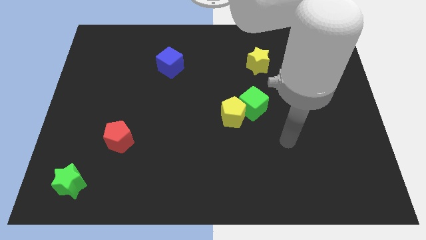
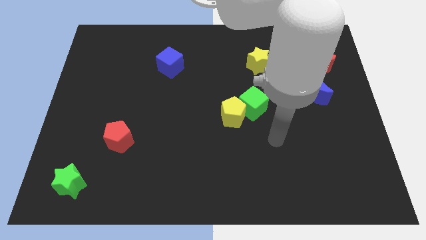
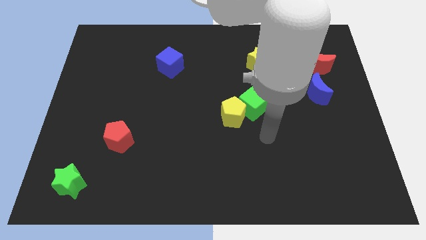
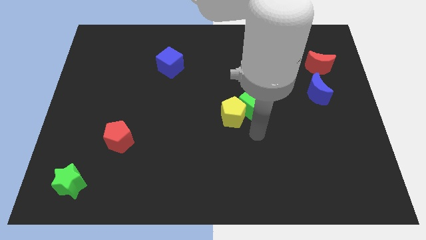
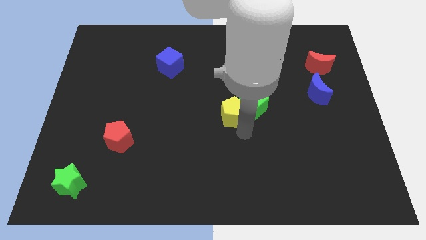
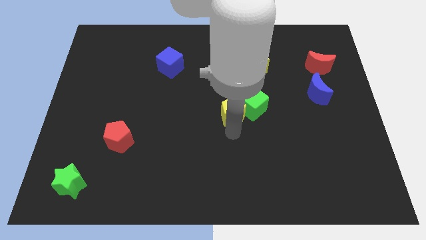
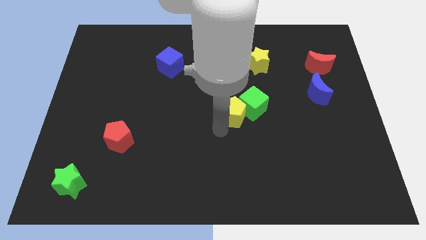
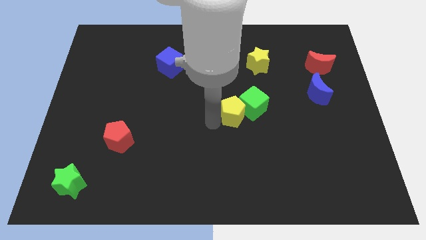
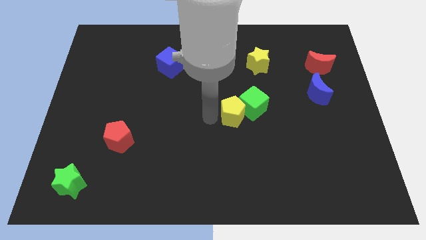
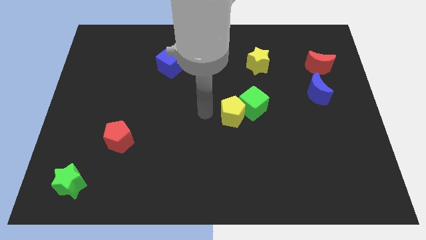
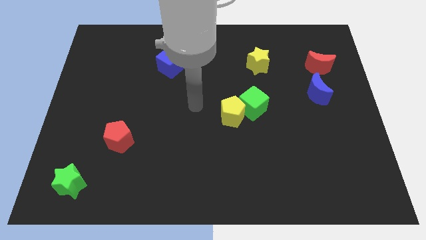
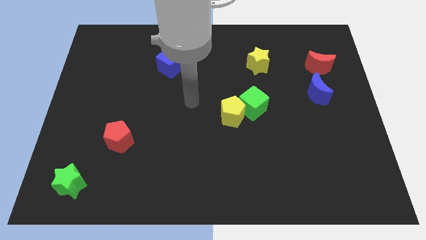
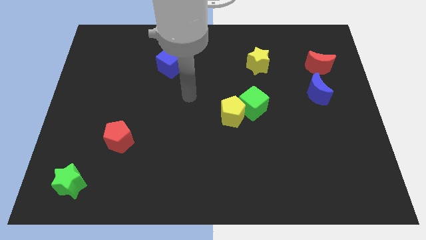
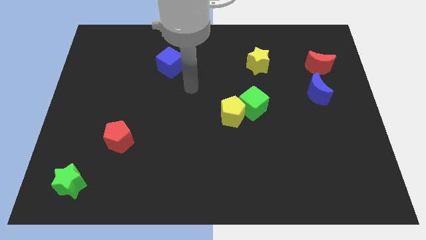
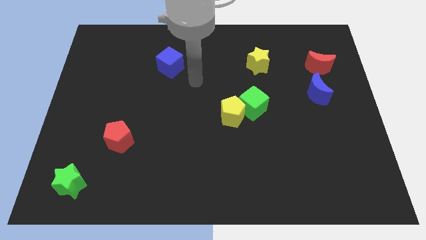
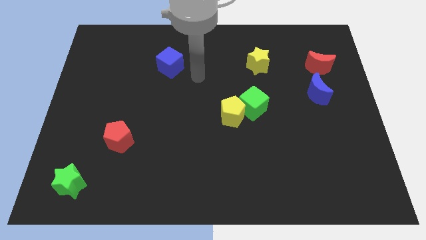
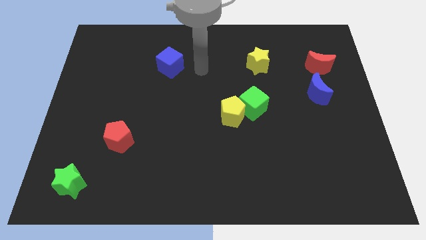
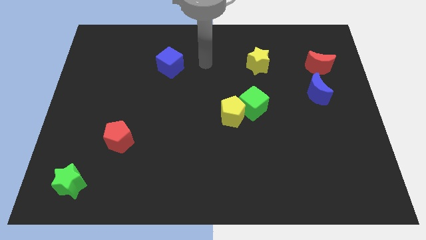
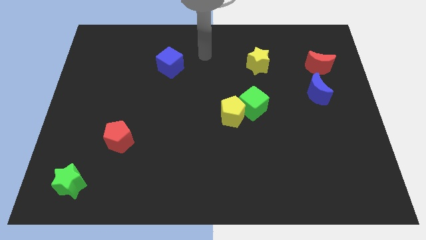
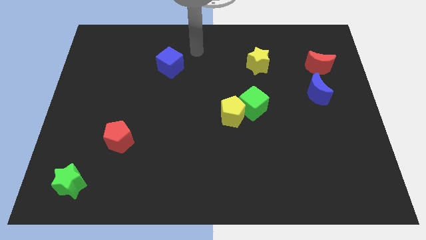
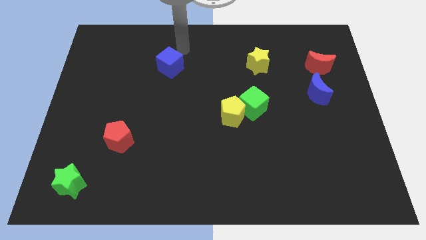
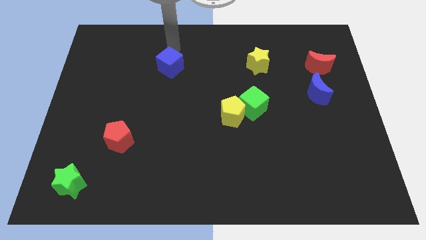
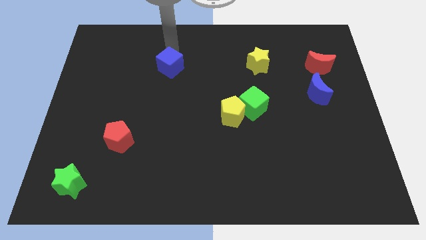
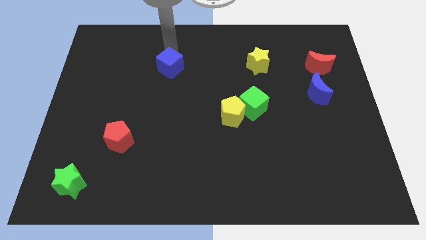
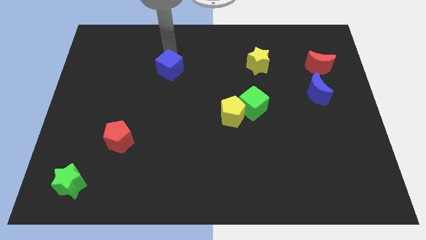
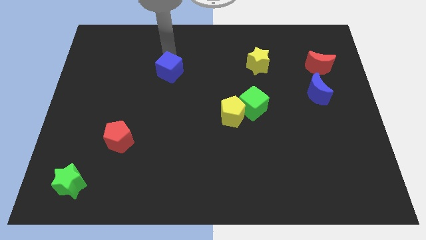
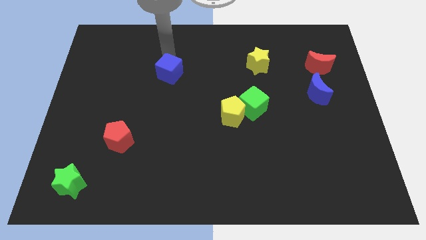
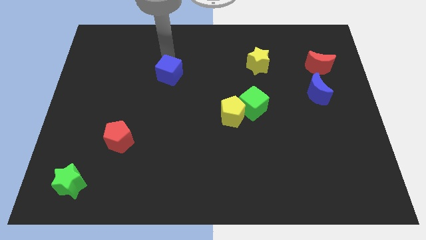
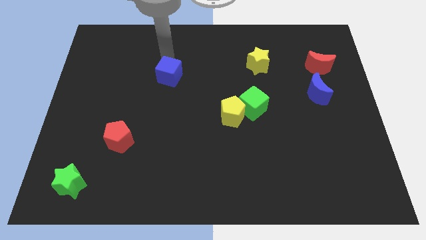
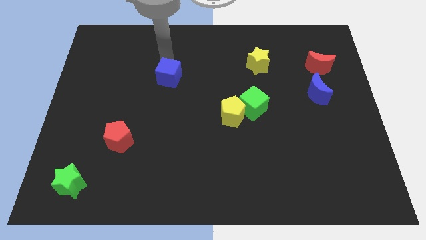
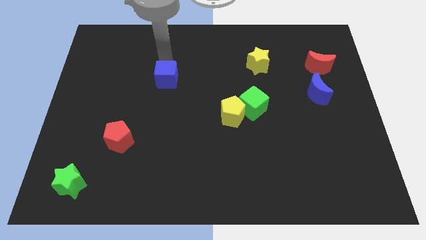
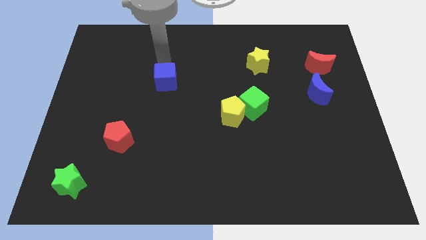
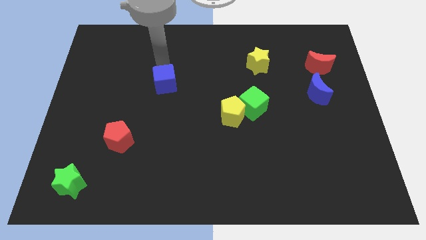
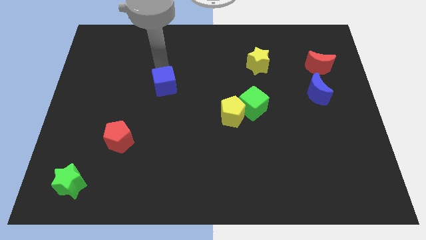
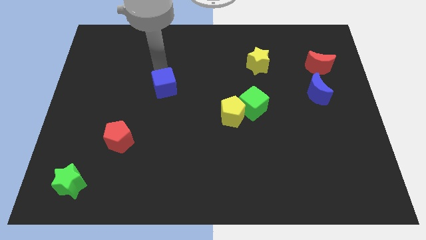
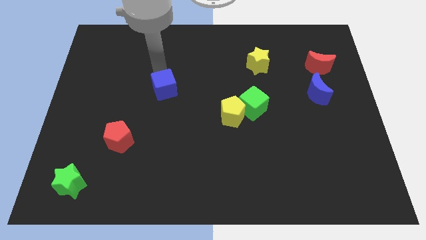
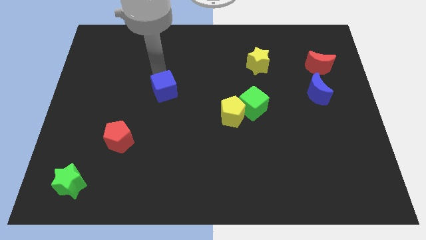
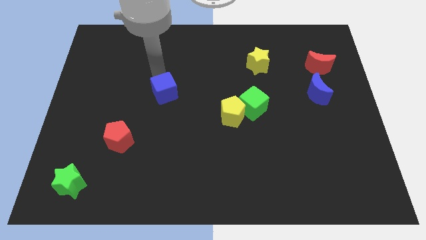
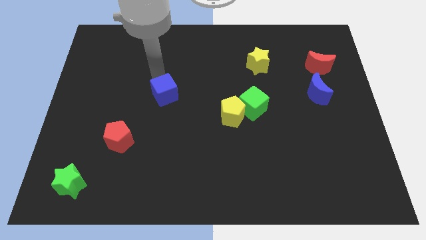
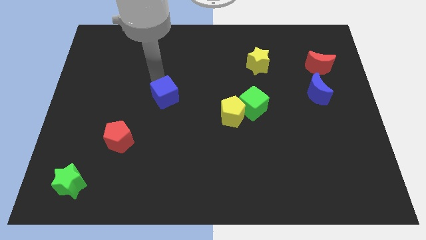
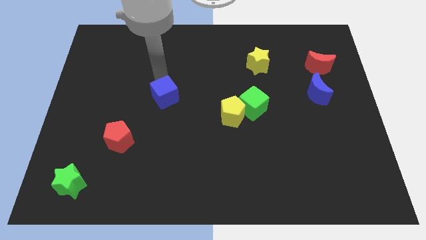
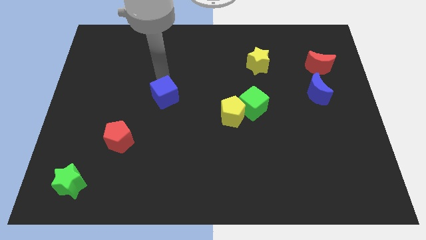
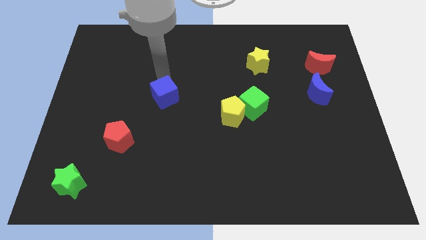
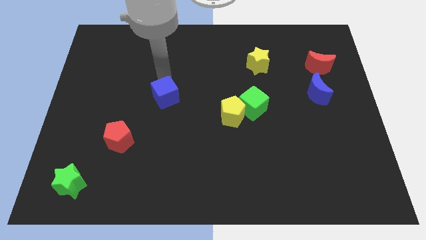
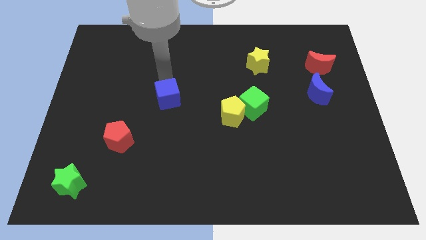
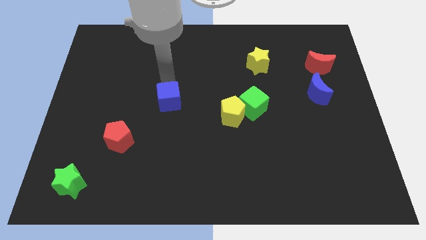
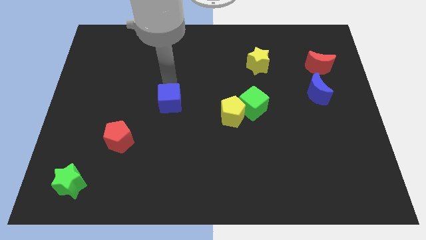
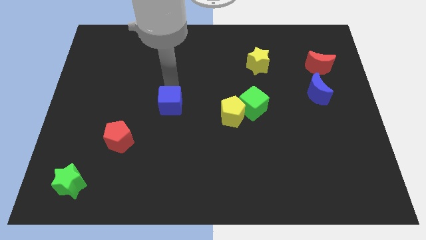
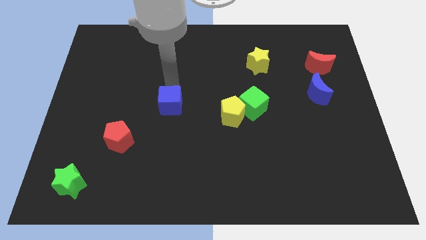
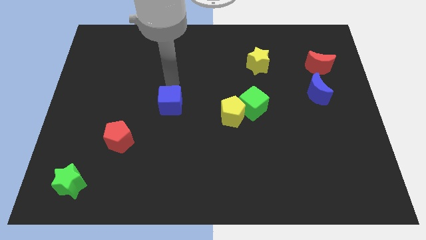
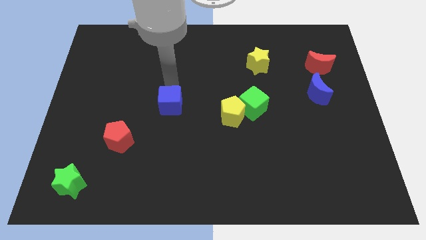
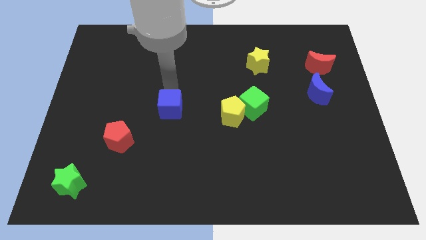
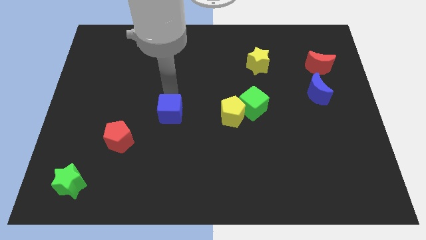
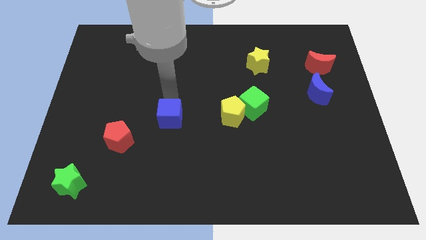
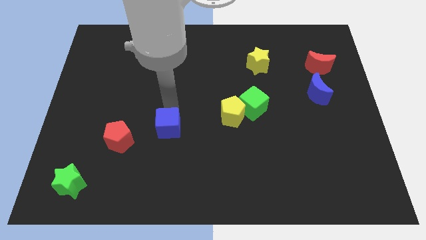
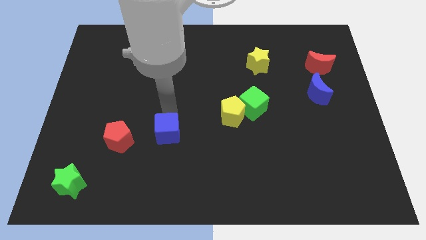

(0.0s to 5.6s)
slide the blue cube down

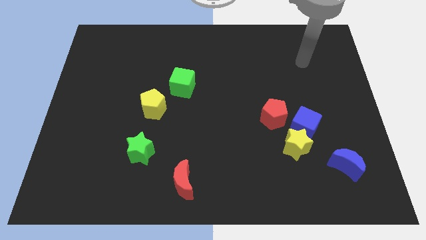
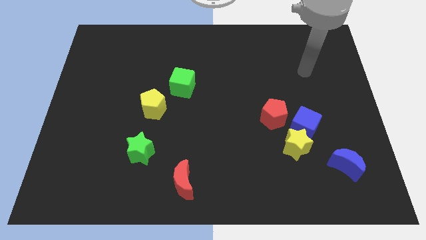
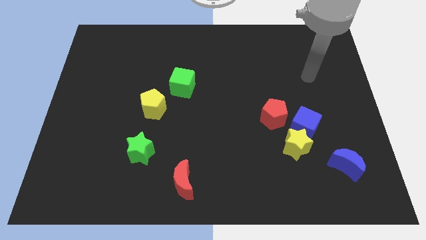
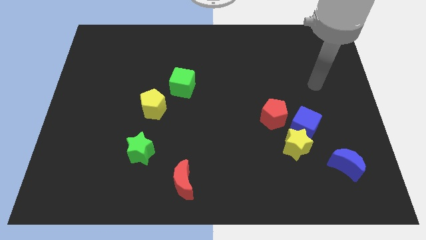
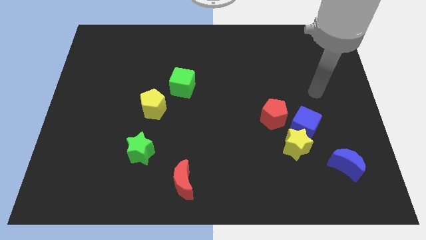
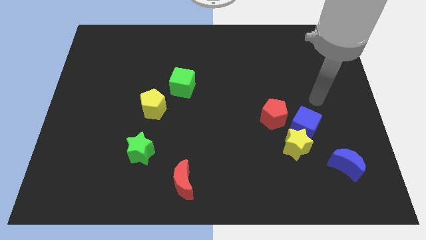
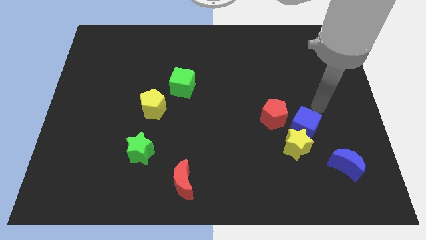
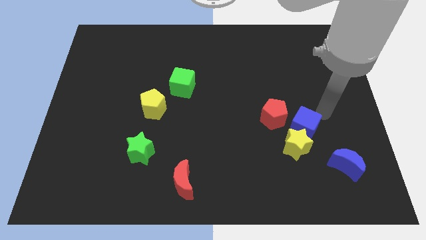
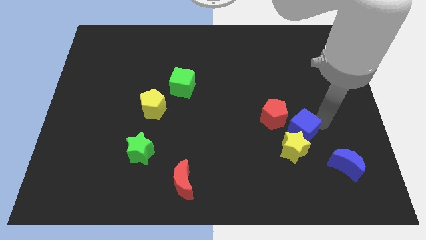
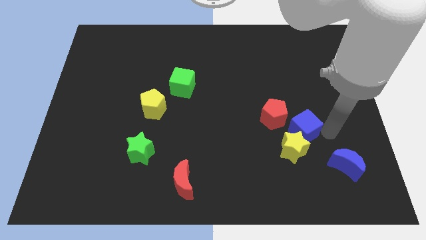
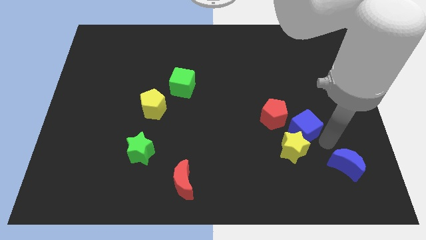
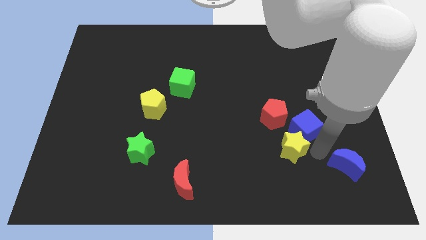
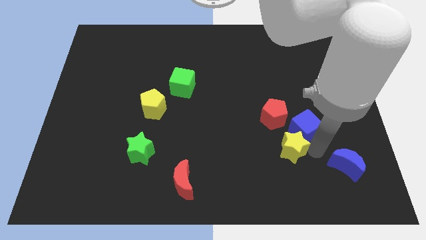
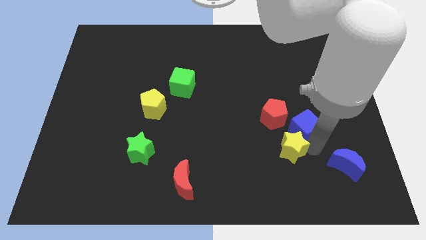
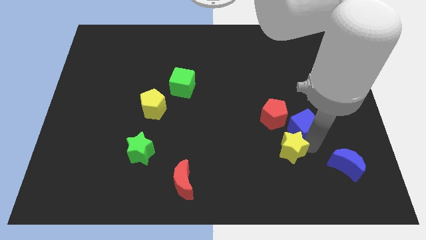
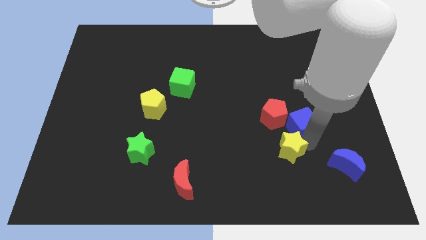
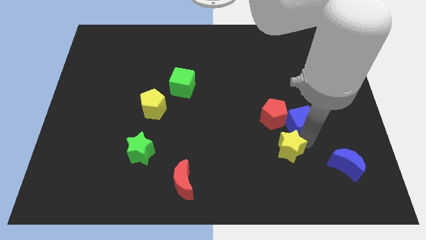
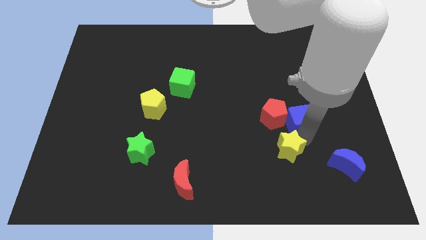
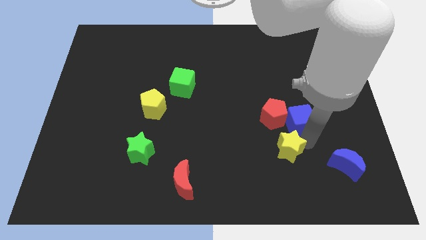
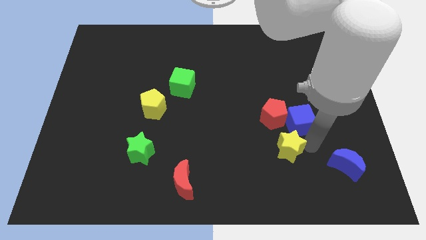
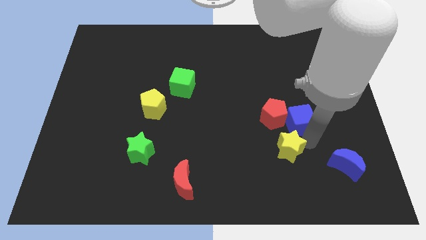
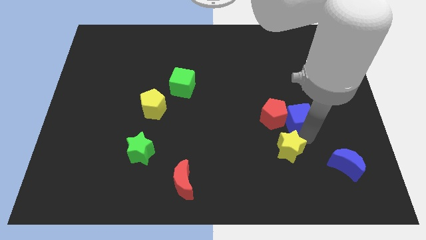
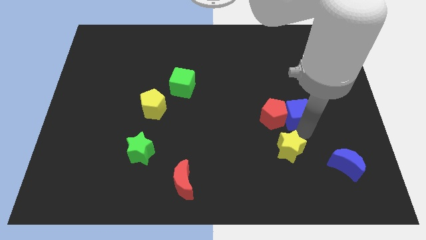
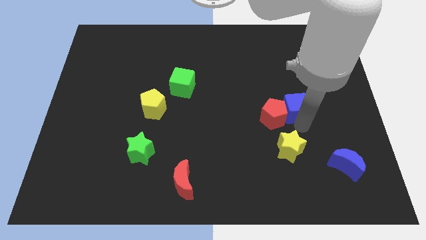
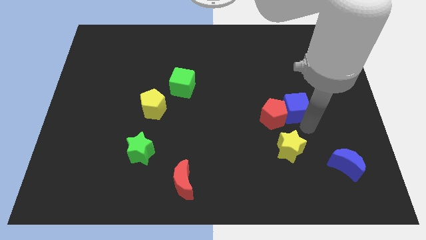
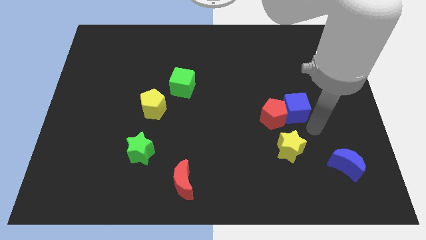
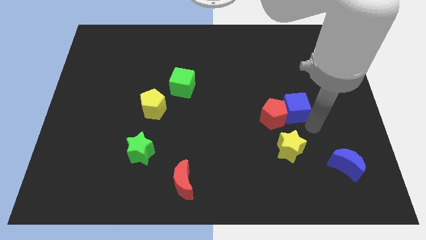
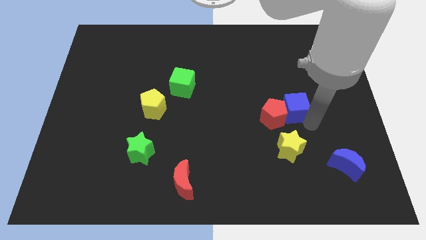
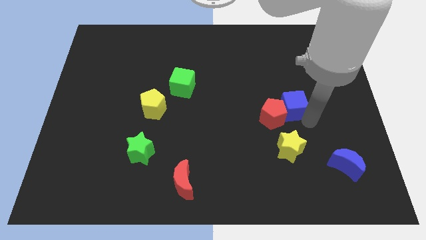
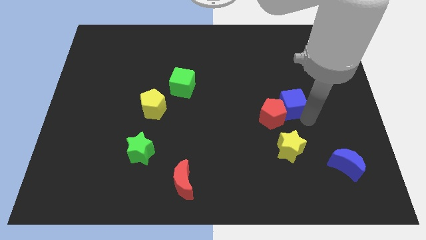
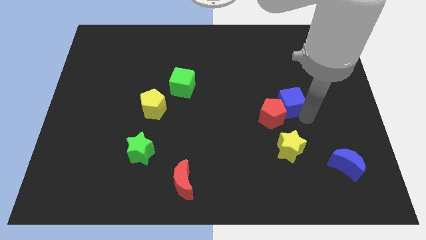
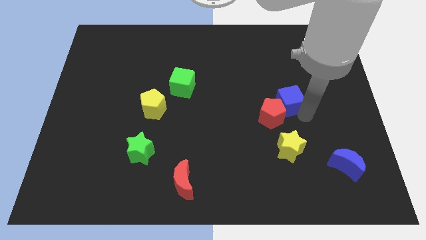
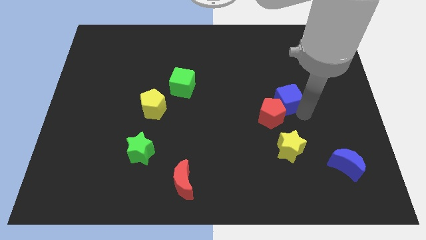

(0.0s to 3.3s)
slightly push the blue cube upwards and to the left
